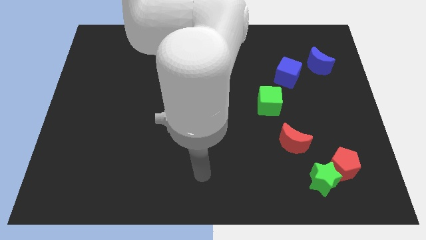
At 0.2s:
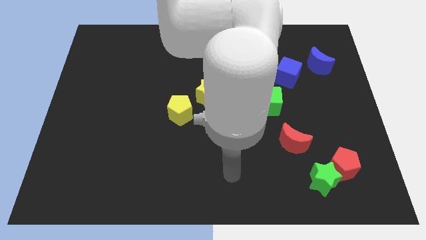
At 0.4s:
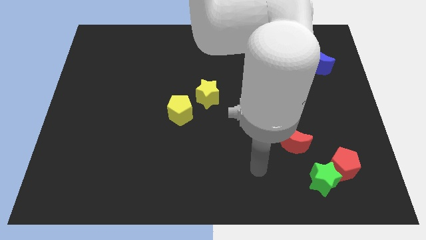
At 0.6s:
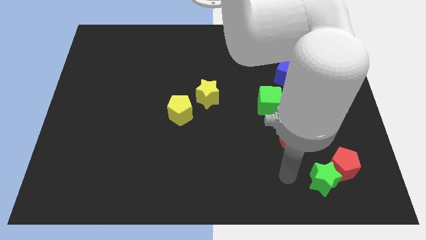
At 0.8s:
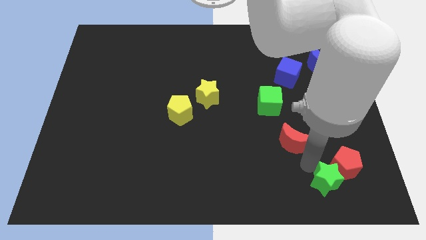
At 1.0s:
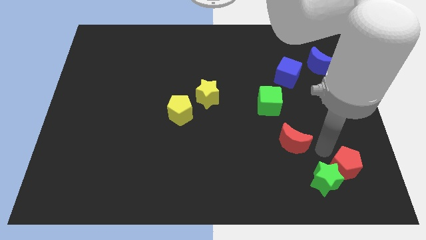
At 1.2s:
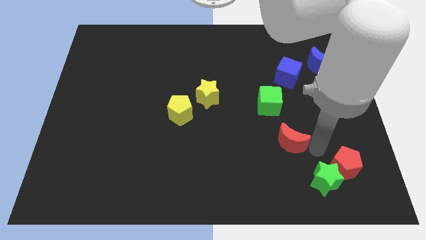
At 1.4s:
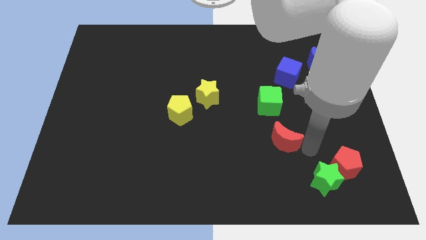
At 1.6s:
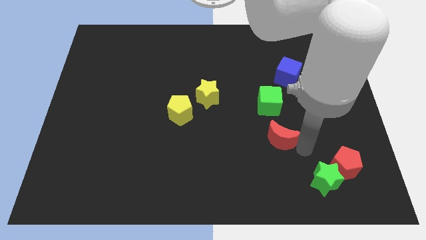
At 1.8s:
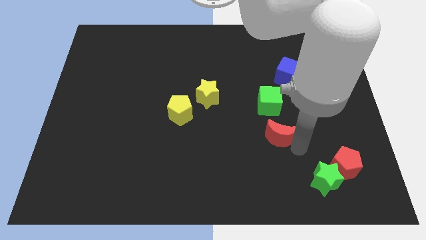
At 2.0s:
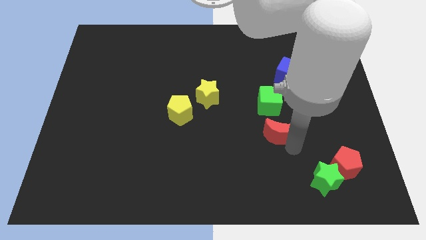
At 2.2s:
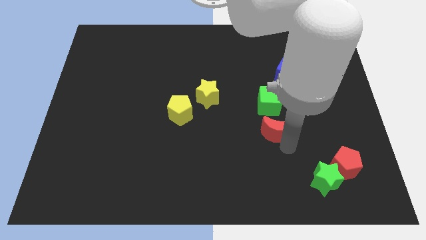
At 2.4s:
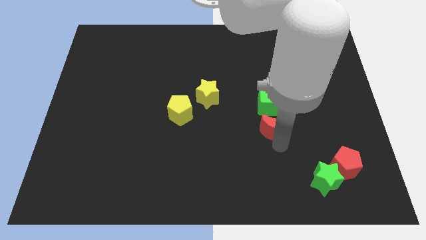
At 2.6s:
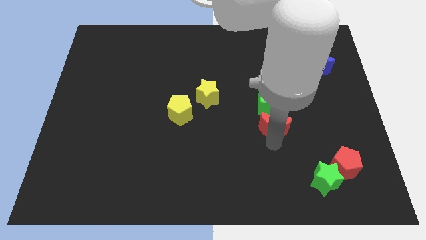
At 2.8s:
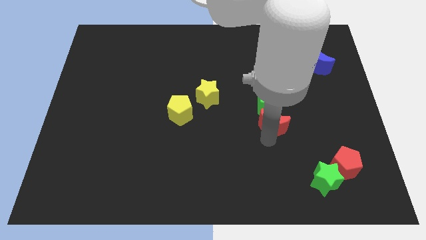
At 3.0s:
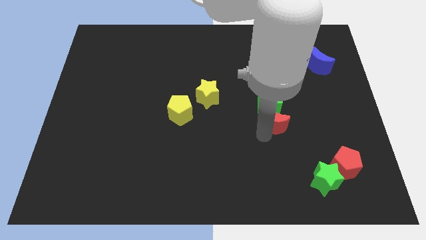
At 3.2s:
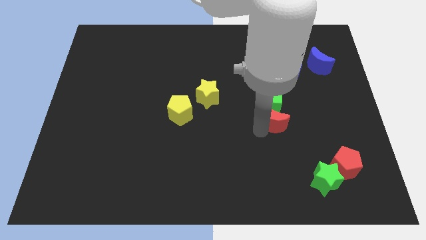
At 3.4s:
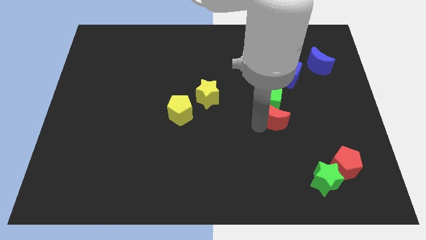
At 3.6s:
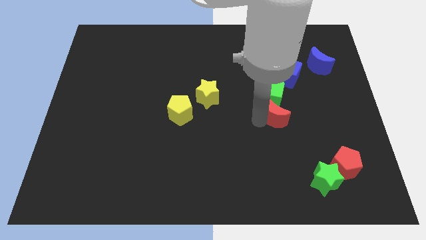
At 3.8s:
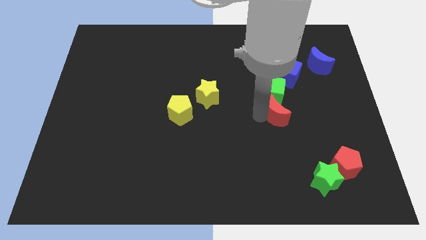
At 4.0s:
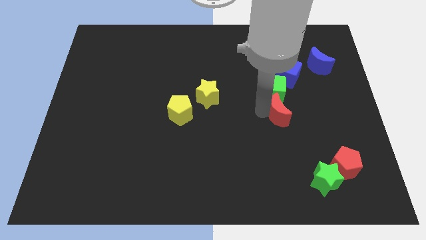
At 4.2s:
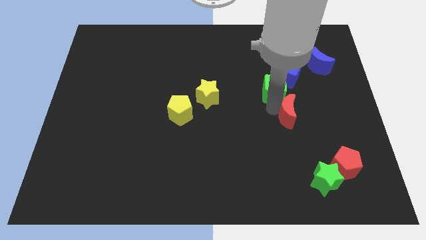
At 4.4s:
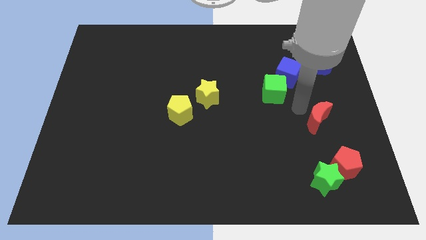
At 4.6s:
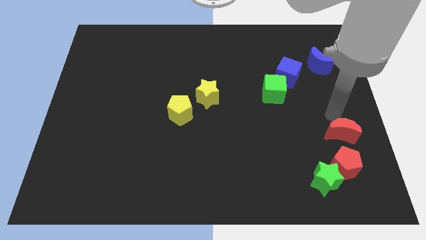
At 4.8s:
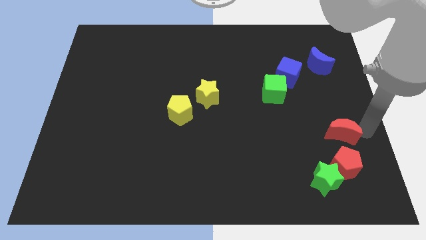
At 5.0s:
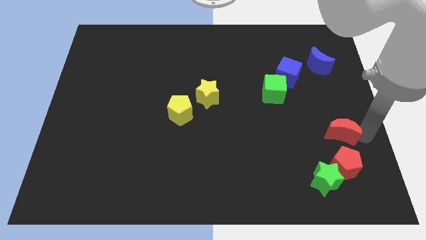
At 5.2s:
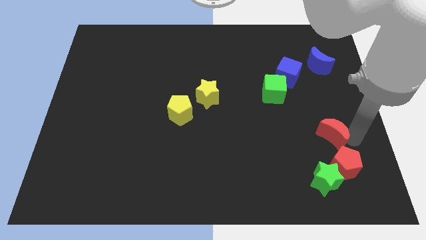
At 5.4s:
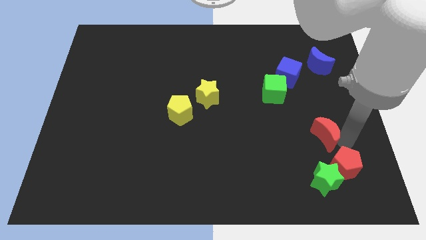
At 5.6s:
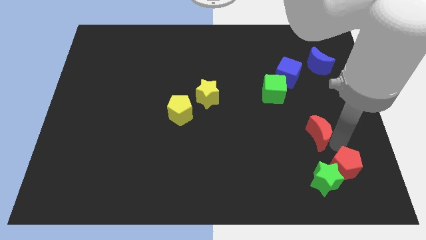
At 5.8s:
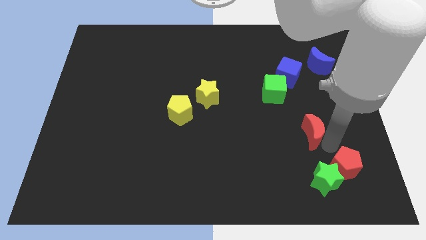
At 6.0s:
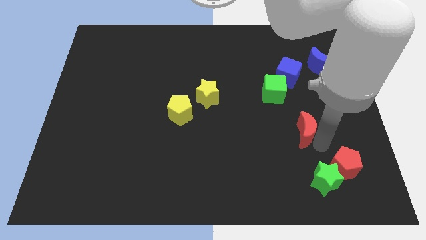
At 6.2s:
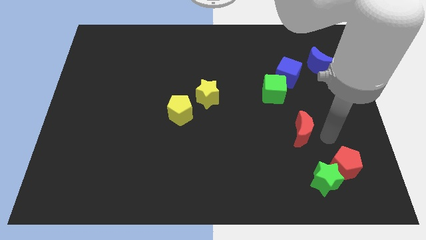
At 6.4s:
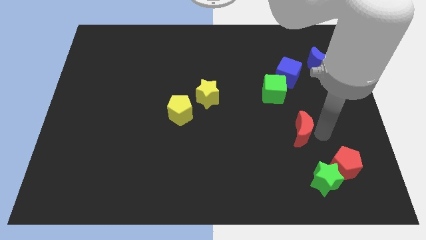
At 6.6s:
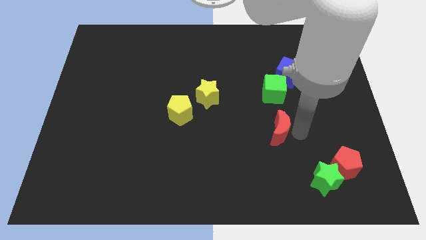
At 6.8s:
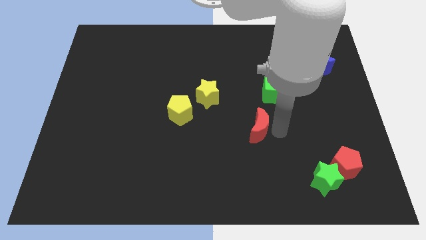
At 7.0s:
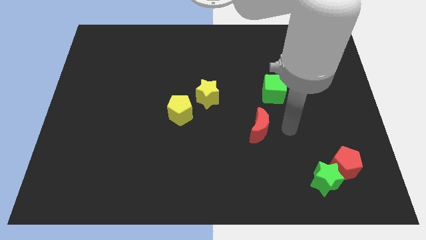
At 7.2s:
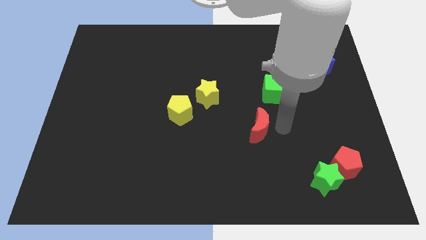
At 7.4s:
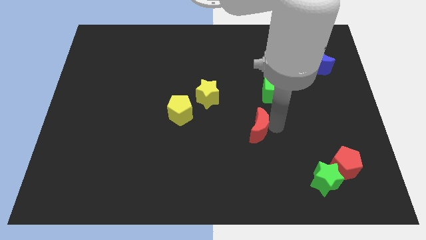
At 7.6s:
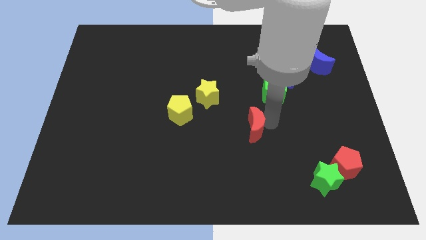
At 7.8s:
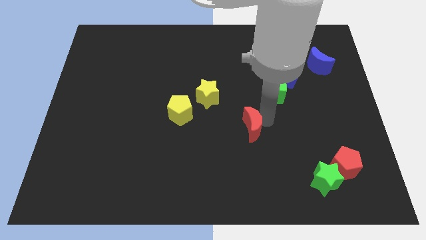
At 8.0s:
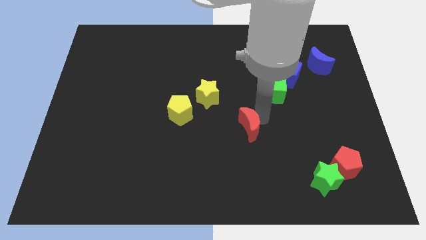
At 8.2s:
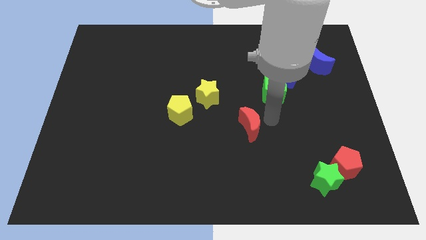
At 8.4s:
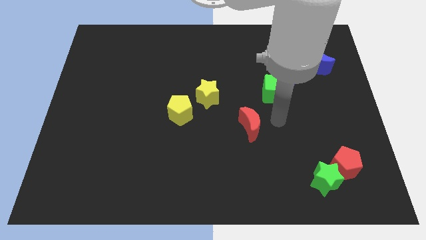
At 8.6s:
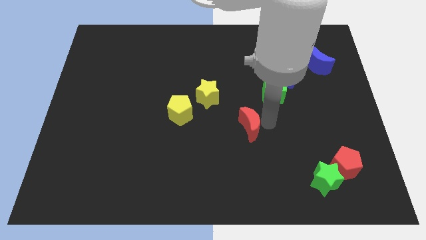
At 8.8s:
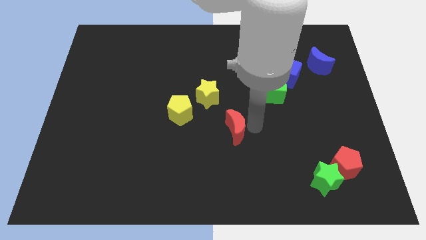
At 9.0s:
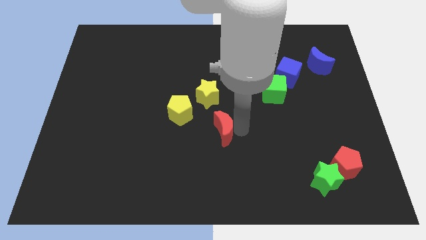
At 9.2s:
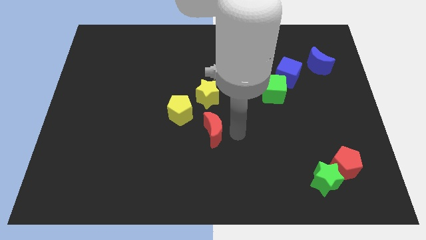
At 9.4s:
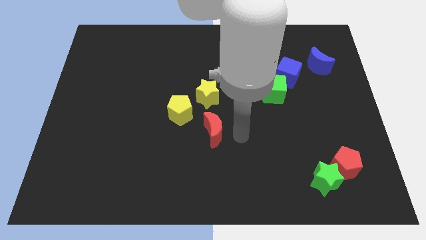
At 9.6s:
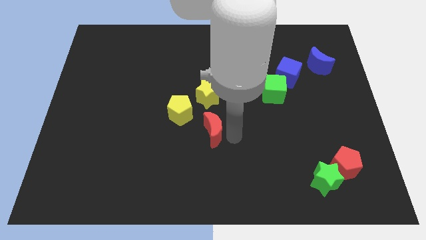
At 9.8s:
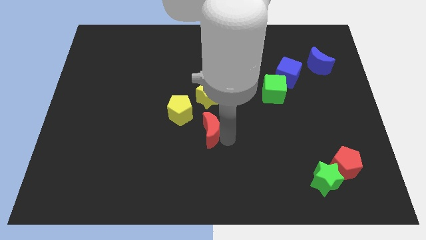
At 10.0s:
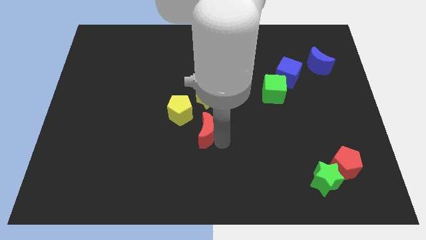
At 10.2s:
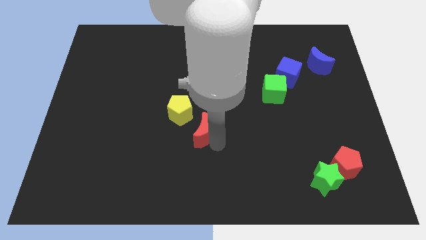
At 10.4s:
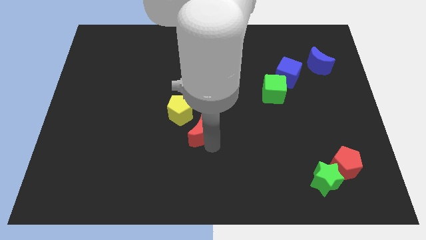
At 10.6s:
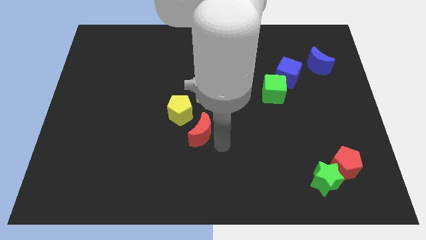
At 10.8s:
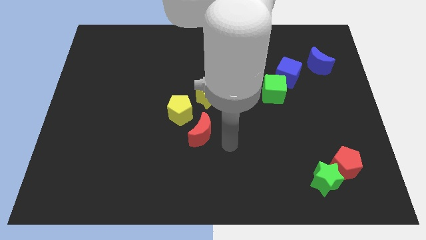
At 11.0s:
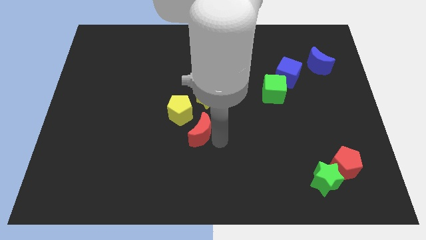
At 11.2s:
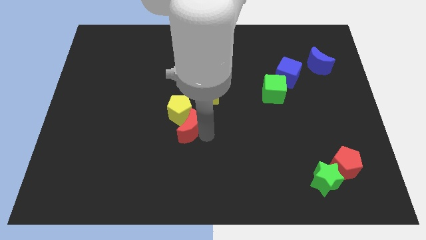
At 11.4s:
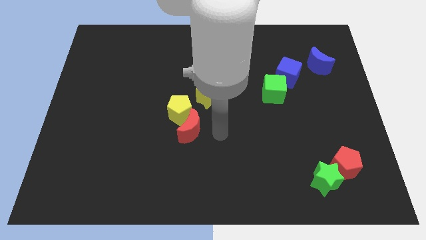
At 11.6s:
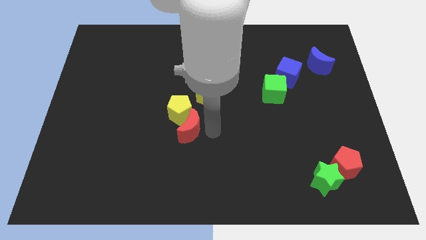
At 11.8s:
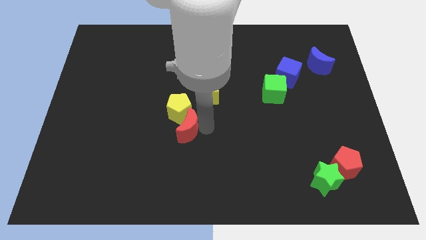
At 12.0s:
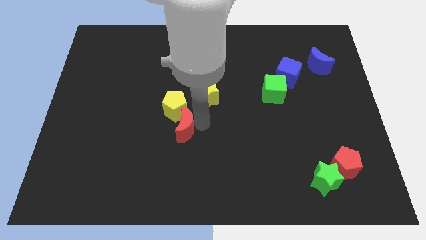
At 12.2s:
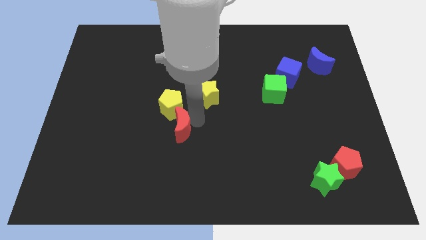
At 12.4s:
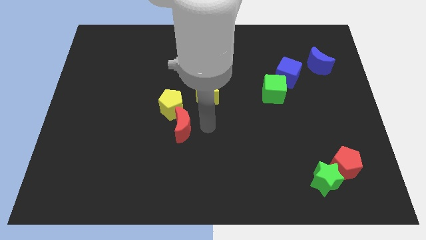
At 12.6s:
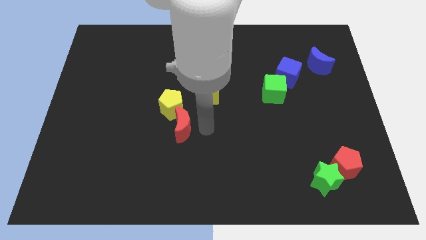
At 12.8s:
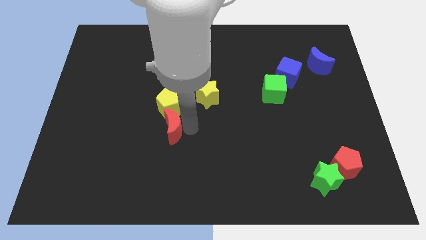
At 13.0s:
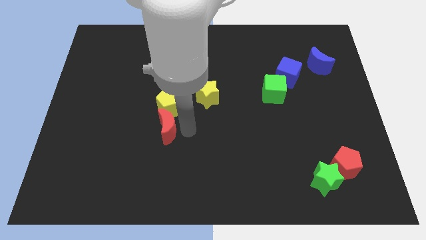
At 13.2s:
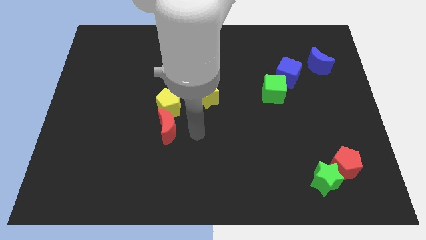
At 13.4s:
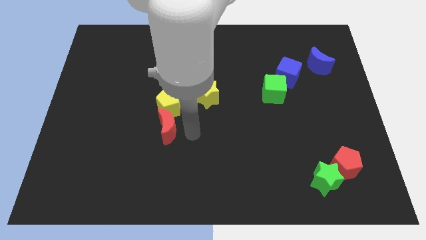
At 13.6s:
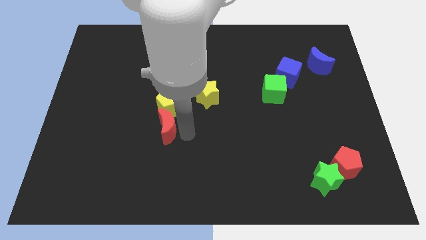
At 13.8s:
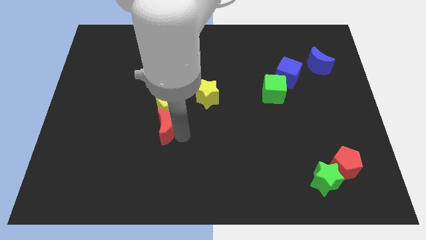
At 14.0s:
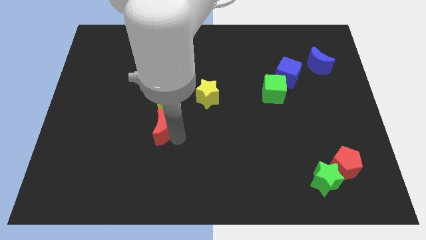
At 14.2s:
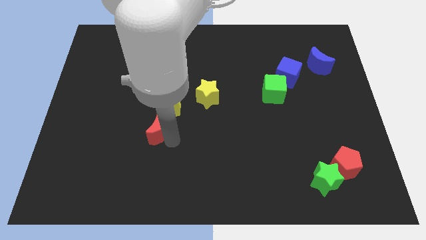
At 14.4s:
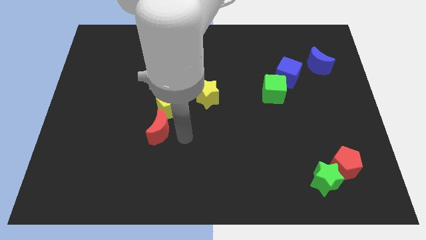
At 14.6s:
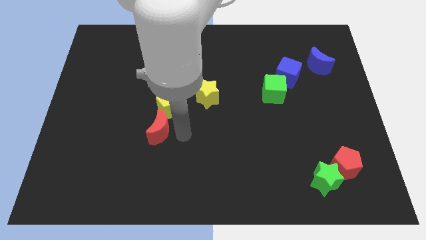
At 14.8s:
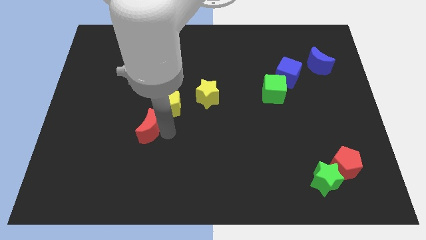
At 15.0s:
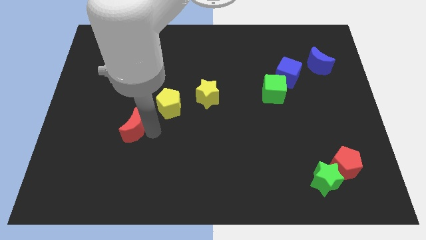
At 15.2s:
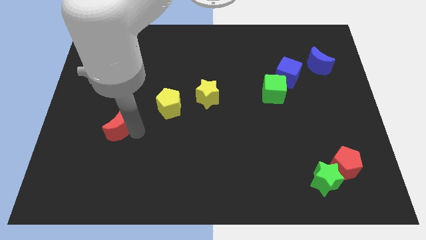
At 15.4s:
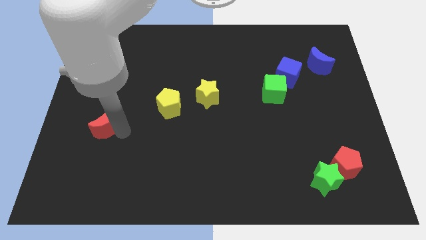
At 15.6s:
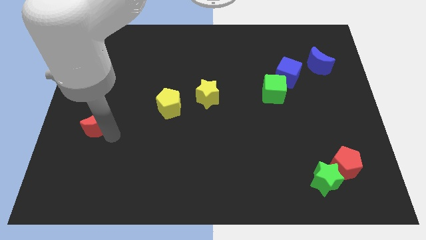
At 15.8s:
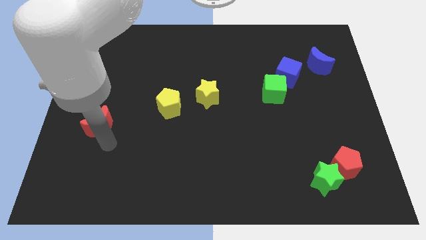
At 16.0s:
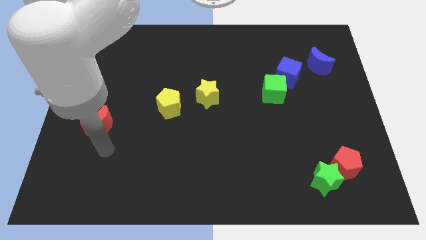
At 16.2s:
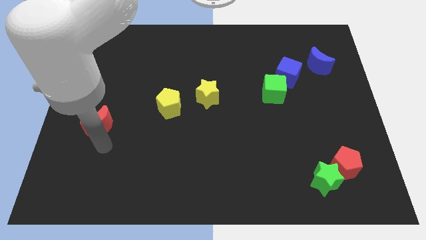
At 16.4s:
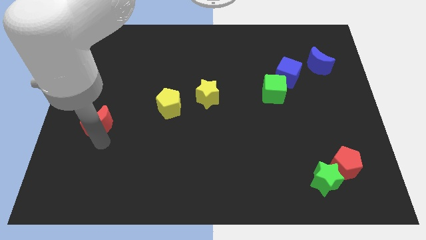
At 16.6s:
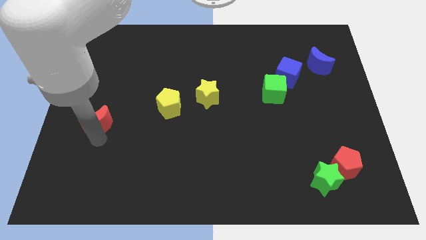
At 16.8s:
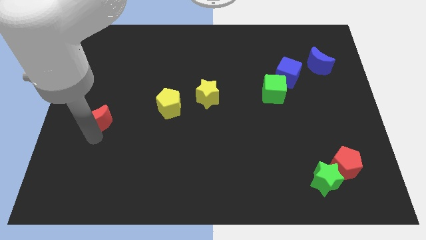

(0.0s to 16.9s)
slide the red moon to the left side of the board
